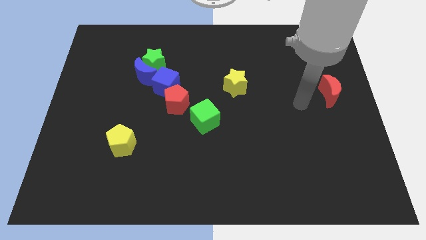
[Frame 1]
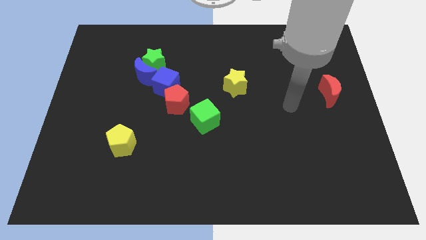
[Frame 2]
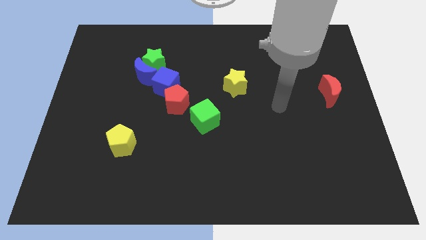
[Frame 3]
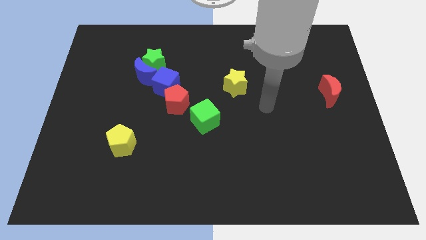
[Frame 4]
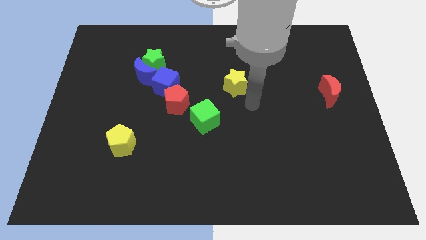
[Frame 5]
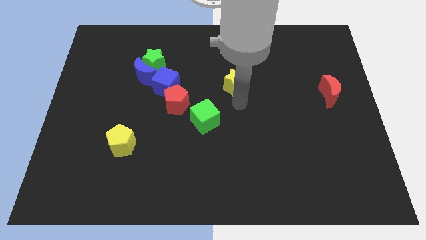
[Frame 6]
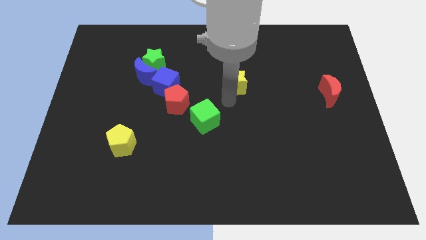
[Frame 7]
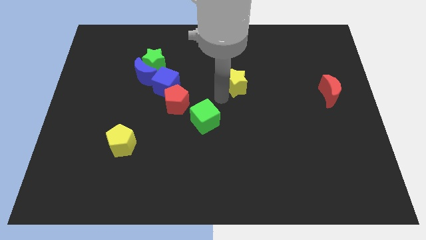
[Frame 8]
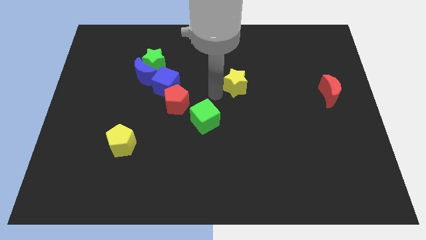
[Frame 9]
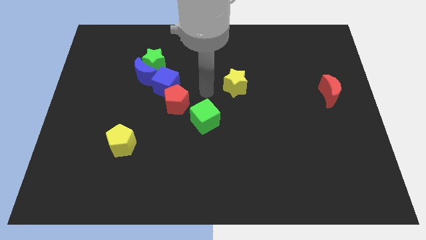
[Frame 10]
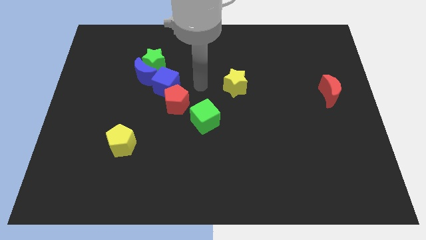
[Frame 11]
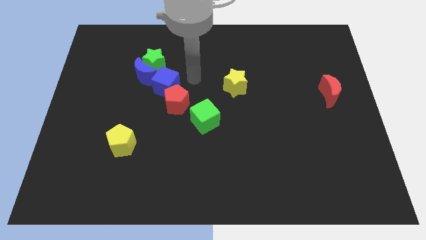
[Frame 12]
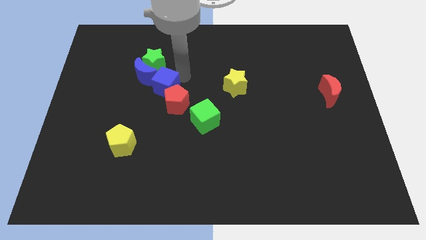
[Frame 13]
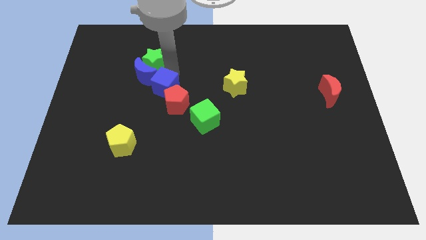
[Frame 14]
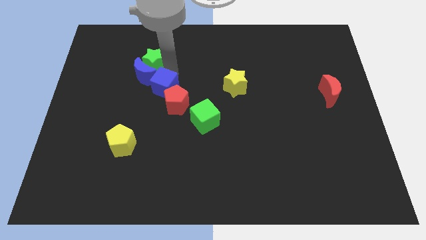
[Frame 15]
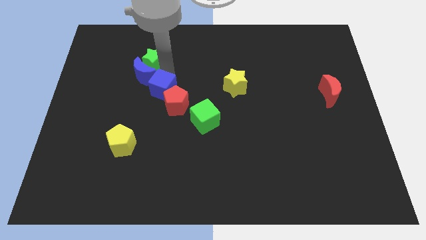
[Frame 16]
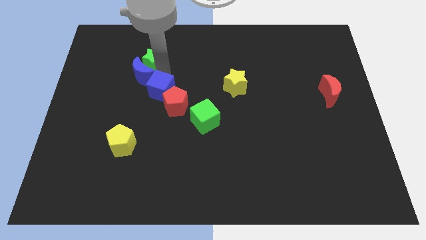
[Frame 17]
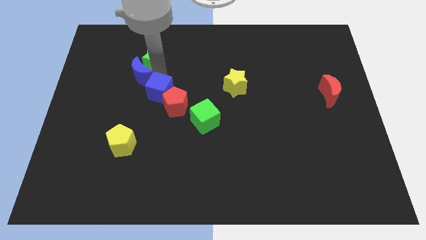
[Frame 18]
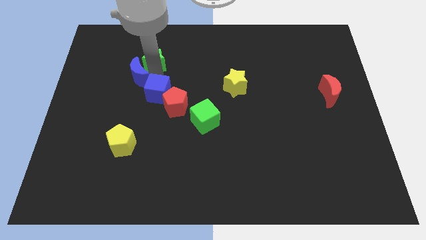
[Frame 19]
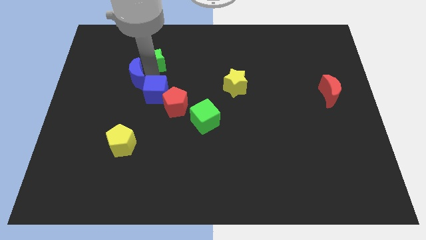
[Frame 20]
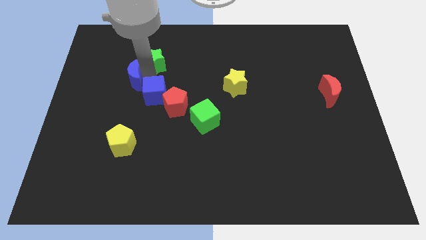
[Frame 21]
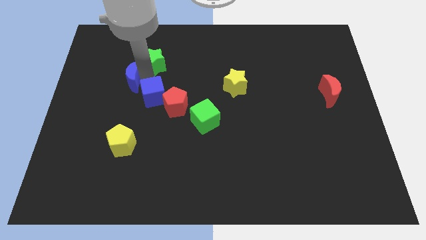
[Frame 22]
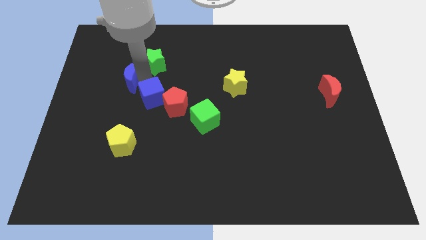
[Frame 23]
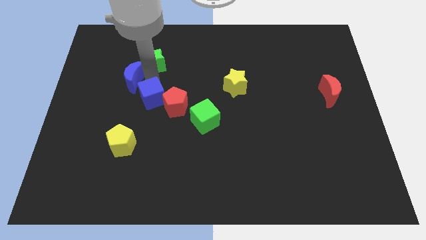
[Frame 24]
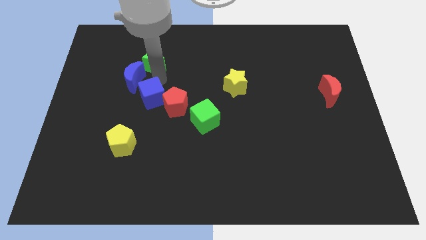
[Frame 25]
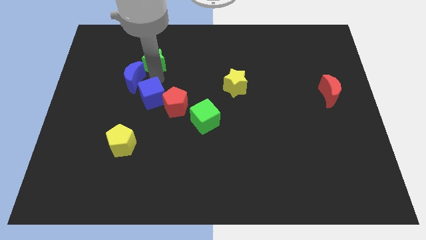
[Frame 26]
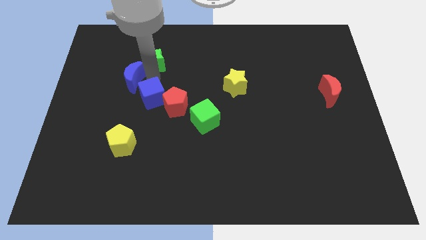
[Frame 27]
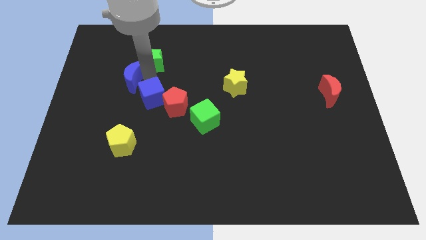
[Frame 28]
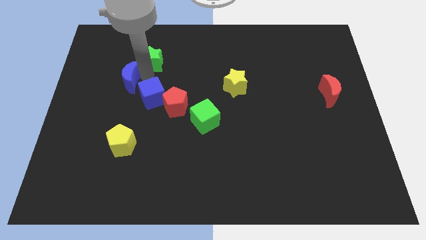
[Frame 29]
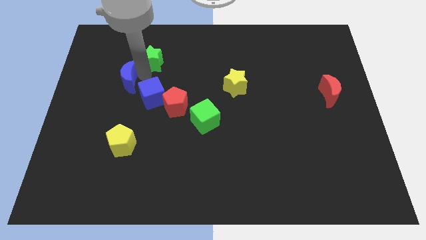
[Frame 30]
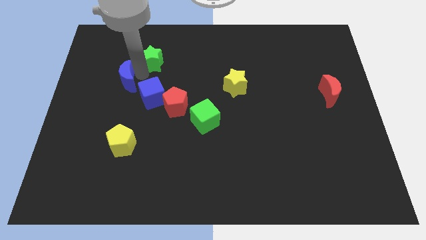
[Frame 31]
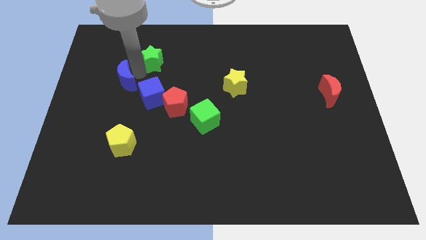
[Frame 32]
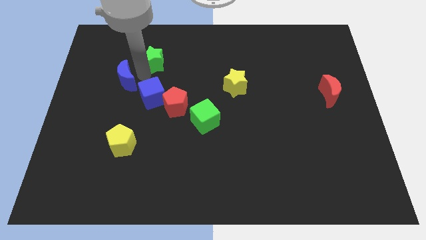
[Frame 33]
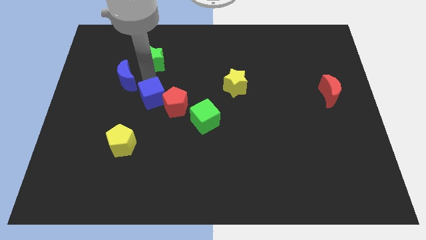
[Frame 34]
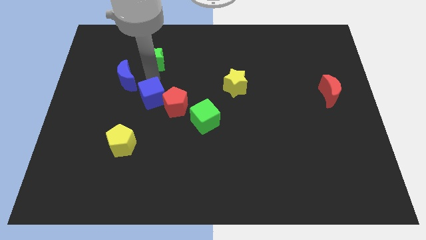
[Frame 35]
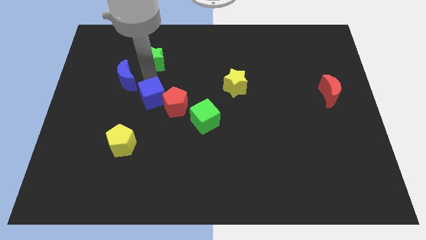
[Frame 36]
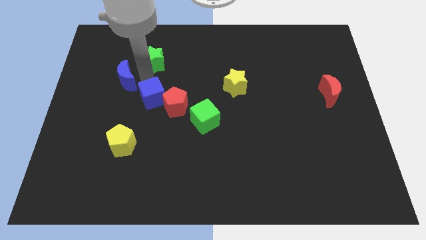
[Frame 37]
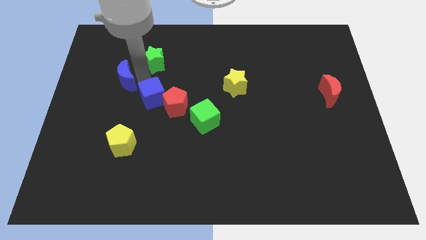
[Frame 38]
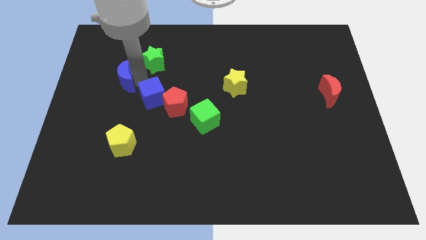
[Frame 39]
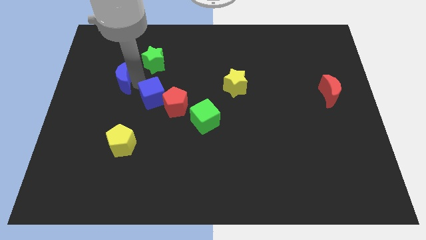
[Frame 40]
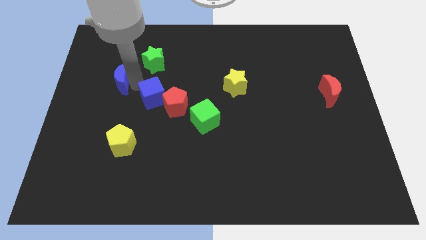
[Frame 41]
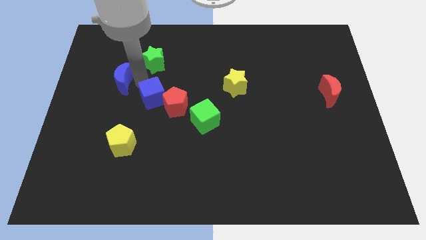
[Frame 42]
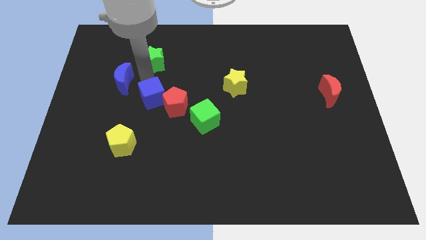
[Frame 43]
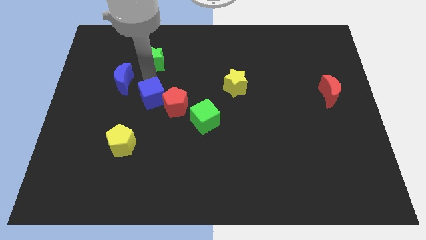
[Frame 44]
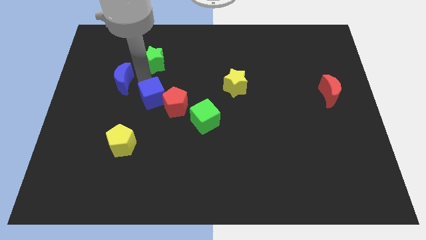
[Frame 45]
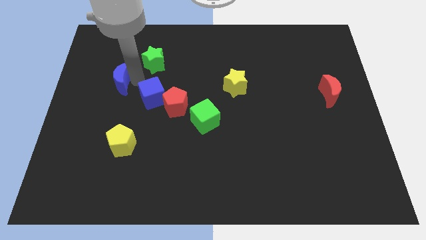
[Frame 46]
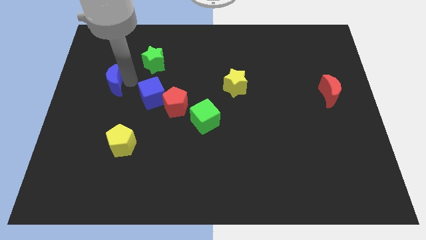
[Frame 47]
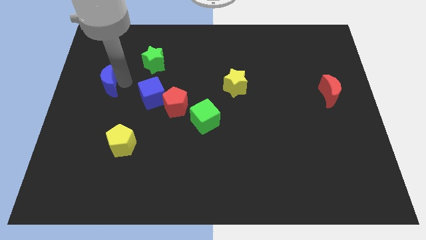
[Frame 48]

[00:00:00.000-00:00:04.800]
move the blue moon away from the green star and blue cube

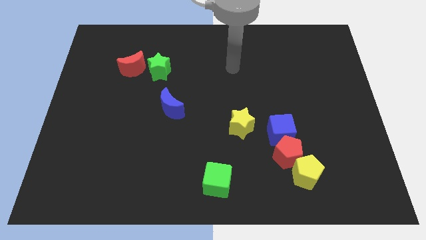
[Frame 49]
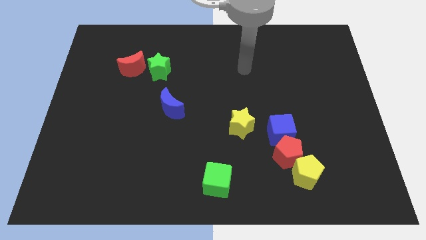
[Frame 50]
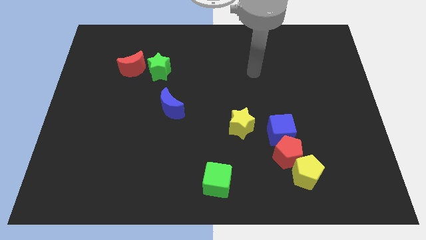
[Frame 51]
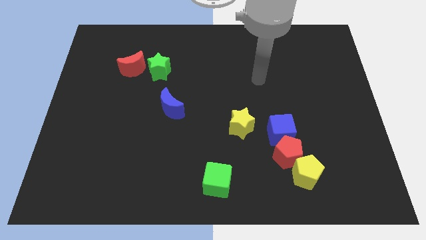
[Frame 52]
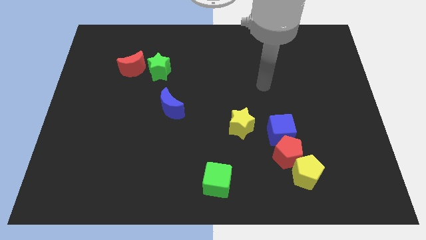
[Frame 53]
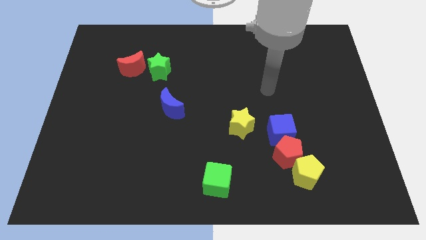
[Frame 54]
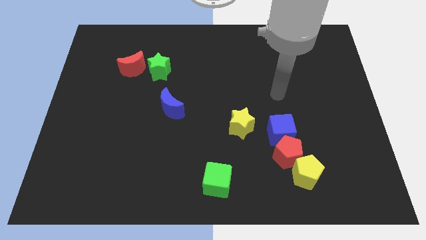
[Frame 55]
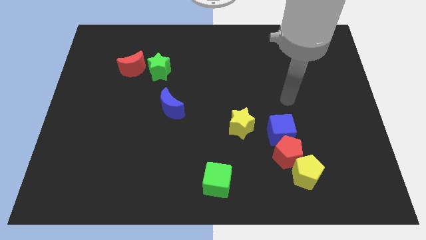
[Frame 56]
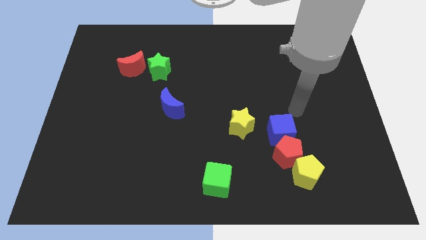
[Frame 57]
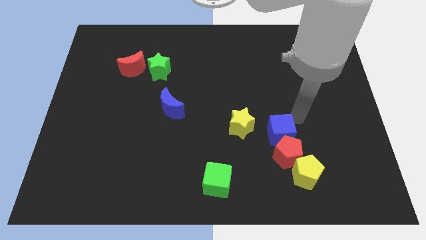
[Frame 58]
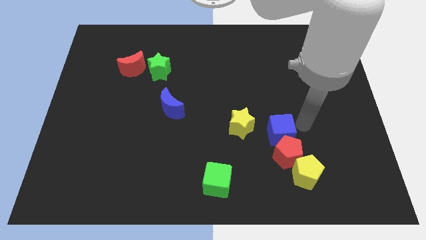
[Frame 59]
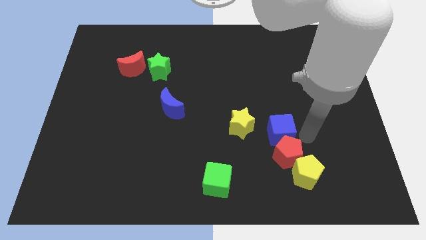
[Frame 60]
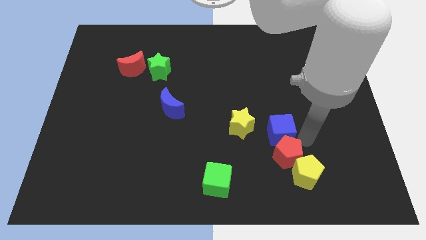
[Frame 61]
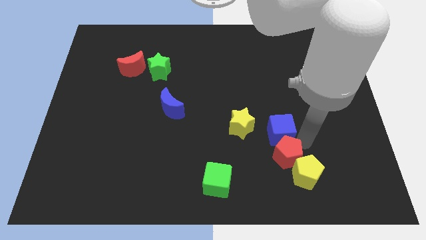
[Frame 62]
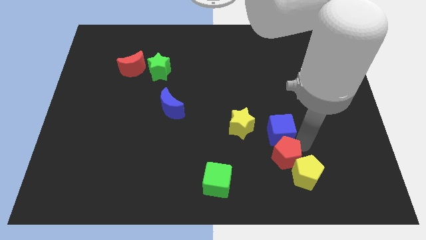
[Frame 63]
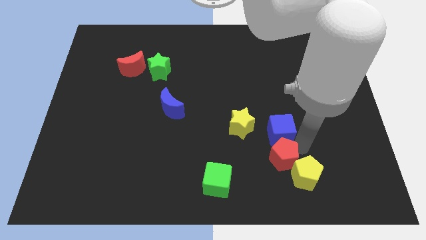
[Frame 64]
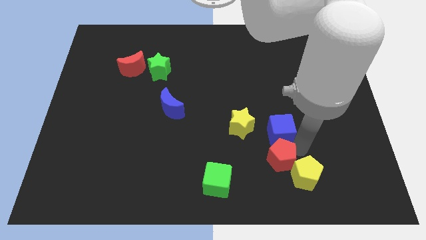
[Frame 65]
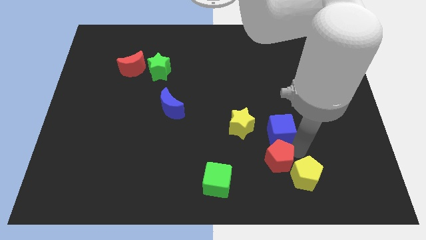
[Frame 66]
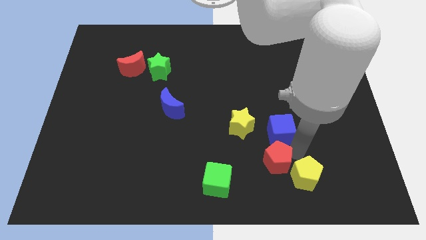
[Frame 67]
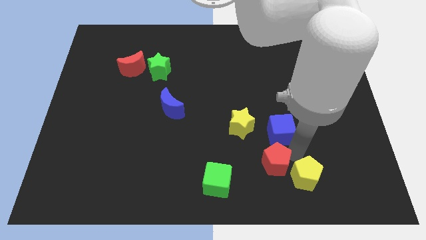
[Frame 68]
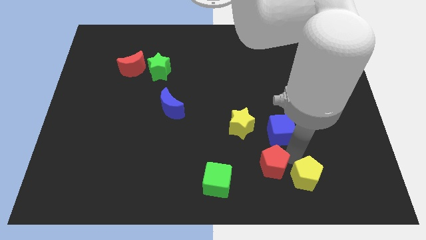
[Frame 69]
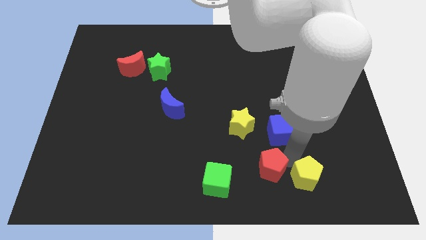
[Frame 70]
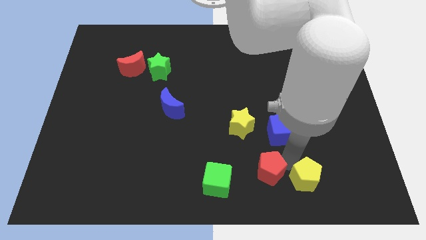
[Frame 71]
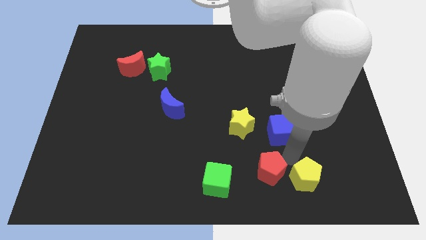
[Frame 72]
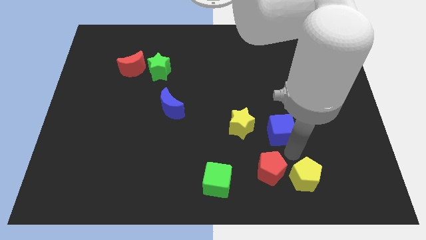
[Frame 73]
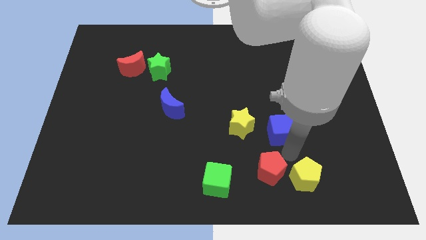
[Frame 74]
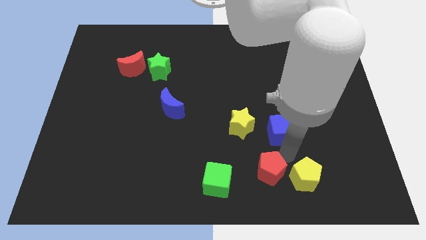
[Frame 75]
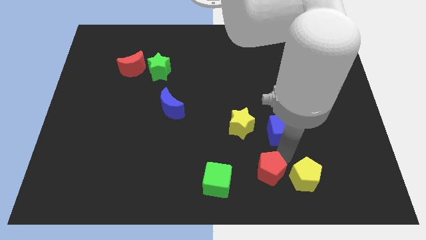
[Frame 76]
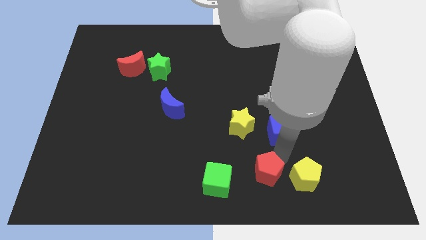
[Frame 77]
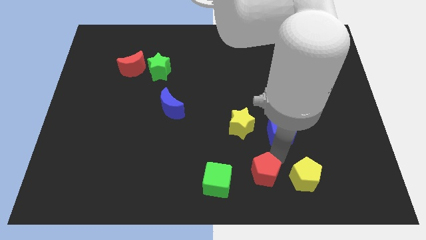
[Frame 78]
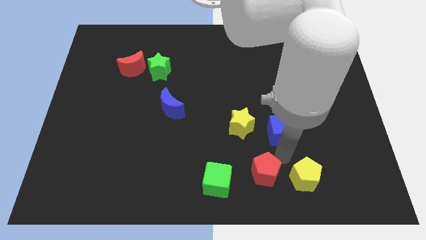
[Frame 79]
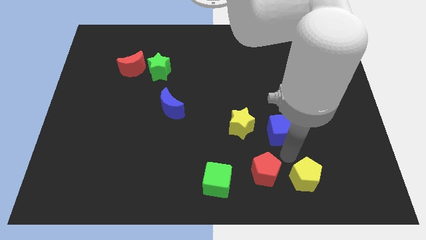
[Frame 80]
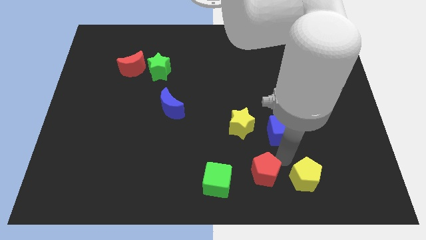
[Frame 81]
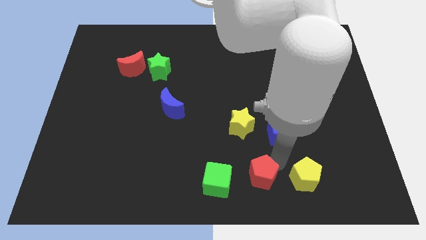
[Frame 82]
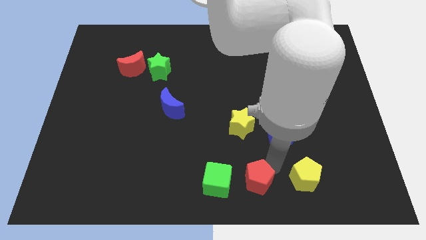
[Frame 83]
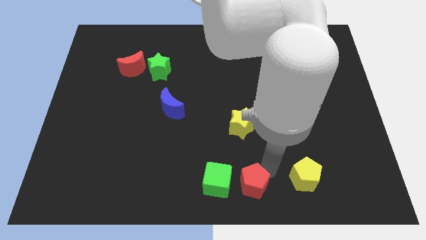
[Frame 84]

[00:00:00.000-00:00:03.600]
pull the red pentagon apart from the blue cube and yellow pentagon

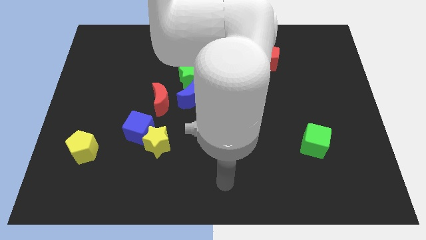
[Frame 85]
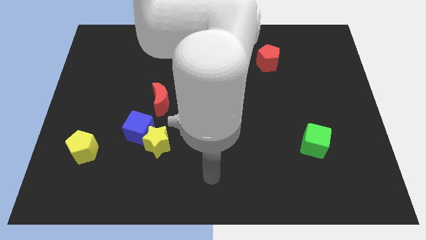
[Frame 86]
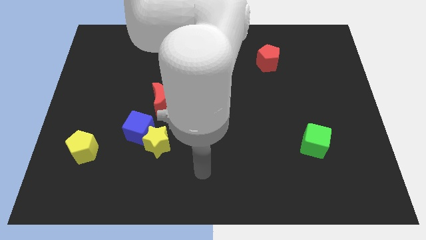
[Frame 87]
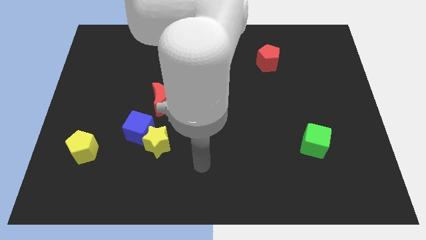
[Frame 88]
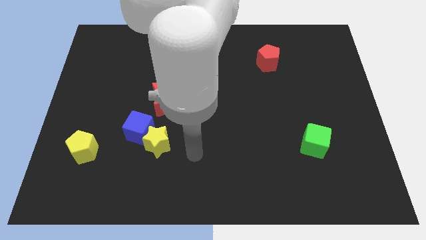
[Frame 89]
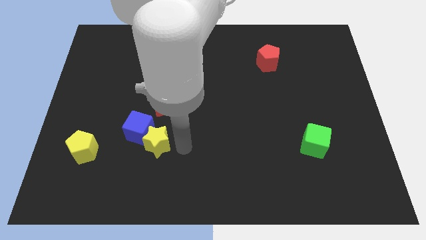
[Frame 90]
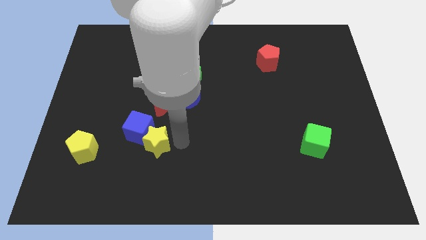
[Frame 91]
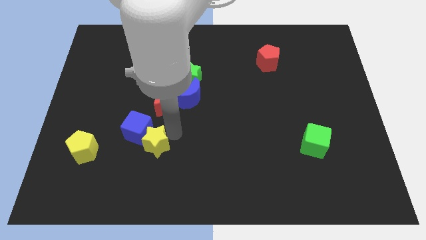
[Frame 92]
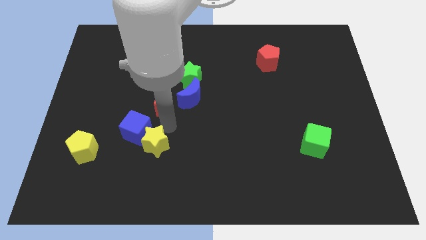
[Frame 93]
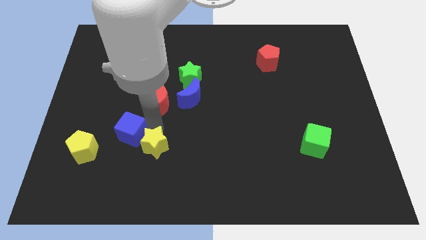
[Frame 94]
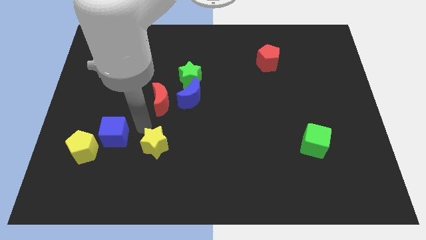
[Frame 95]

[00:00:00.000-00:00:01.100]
pull the yellow star apart from the blue cube
